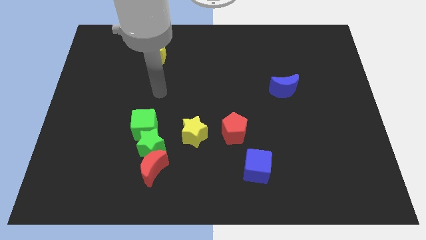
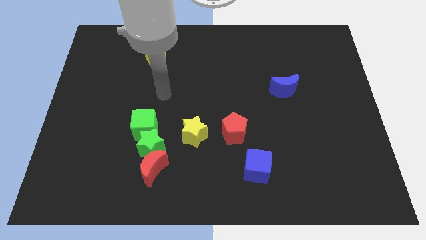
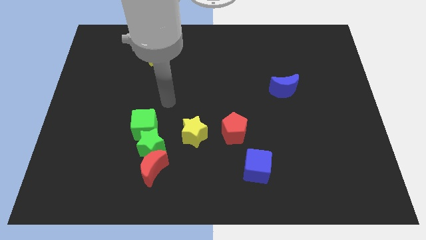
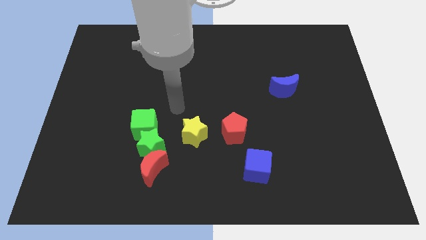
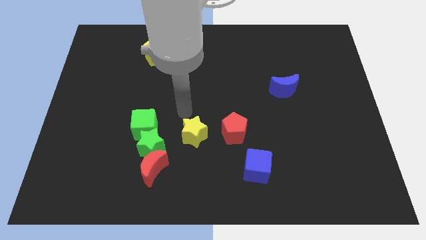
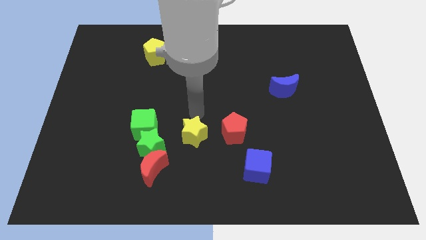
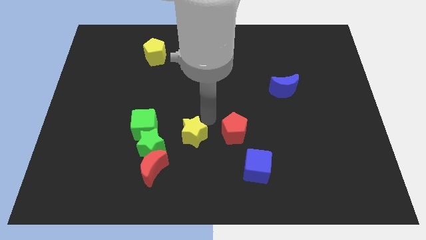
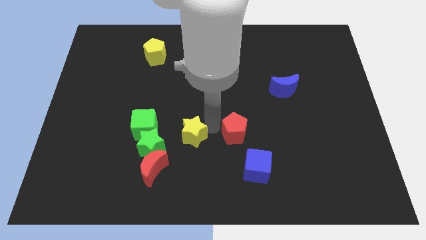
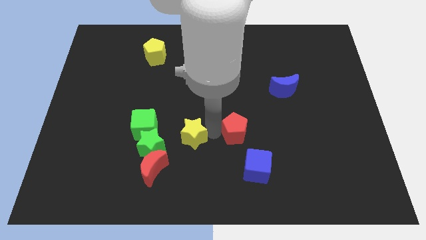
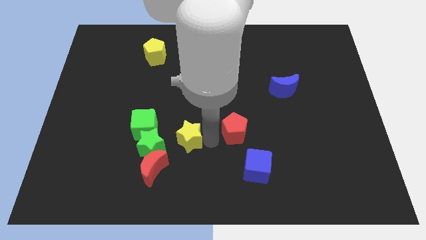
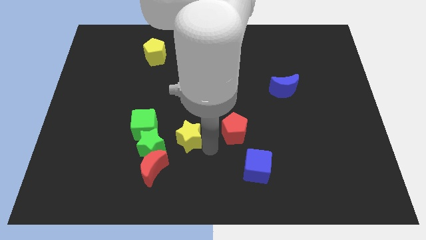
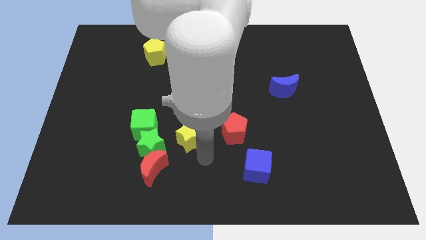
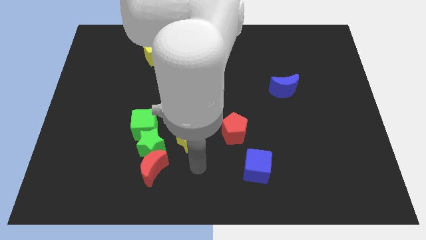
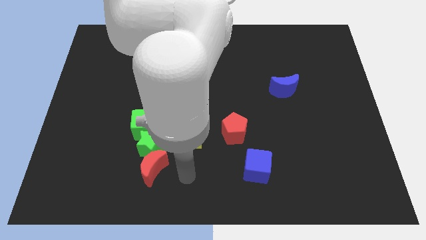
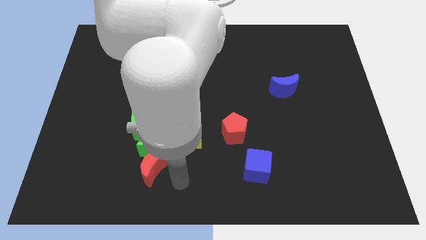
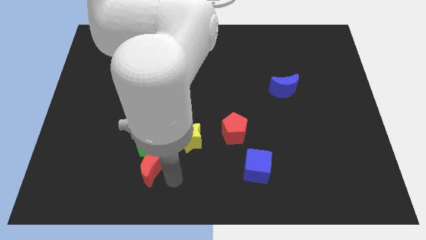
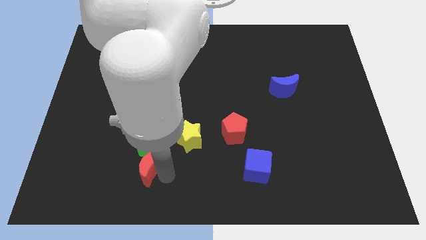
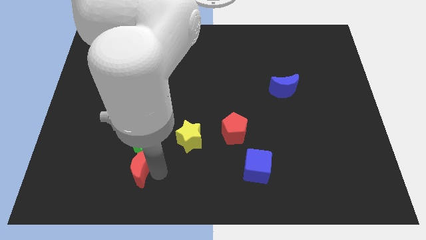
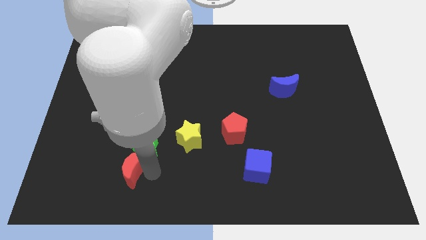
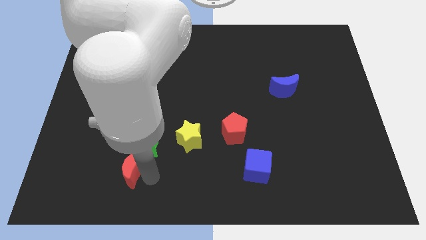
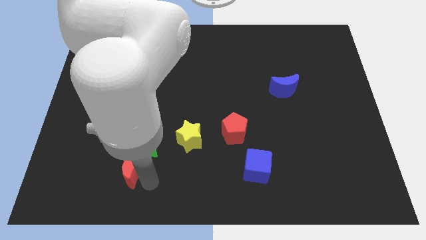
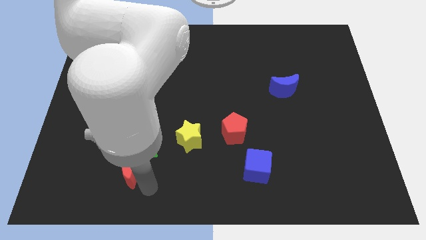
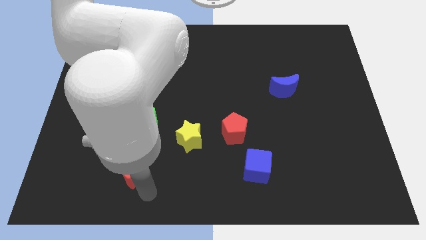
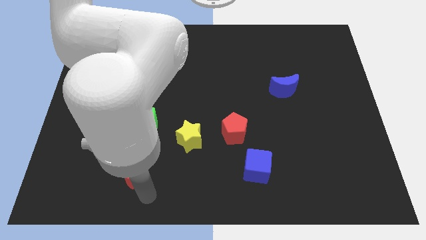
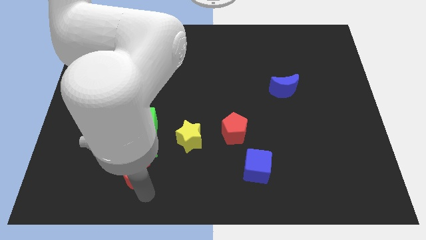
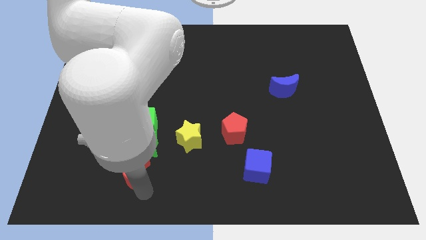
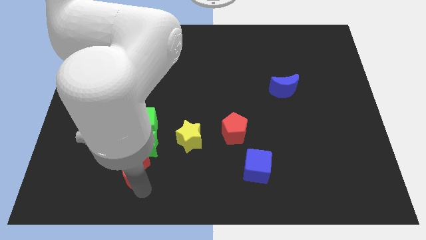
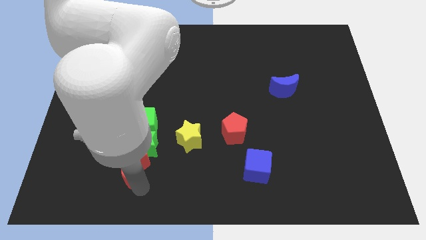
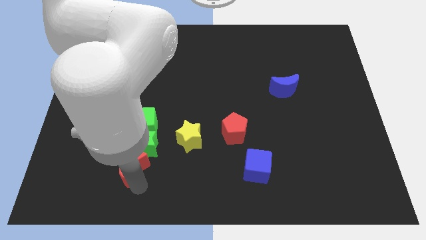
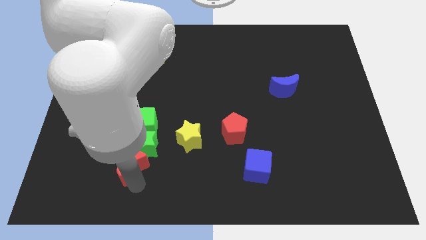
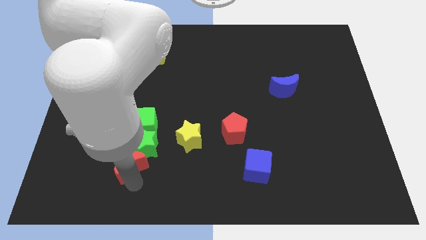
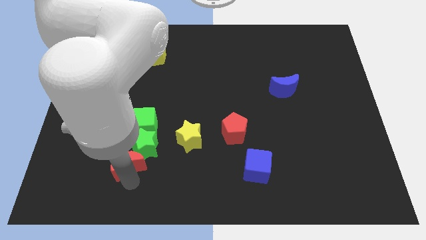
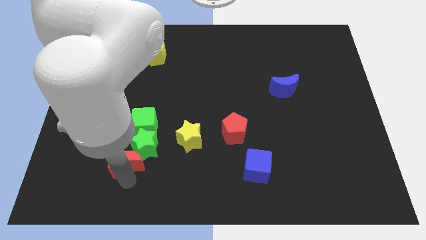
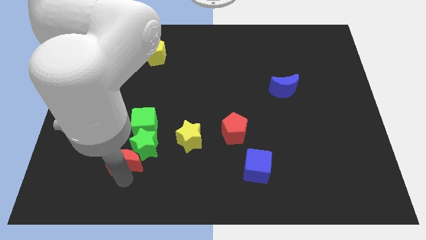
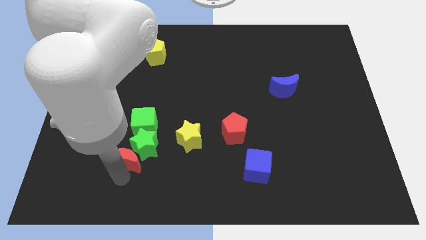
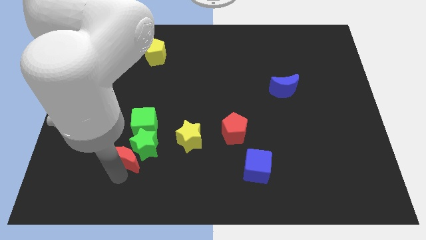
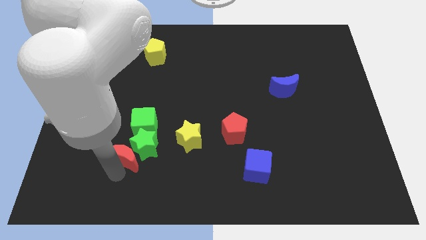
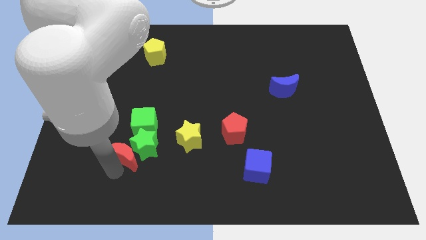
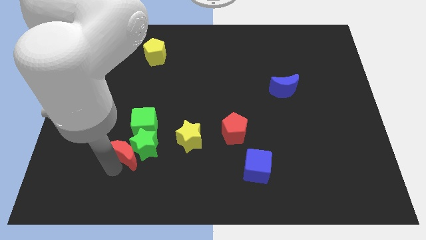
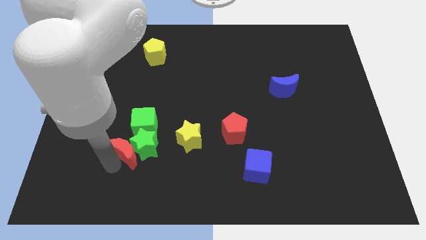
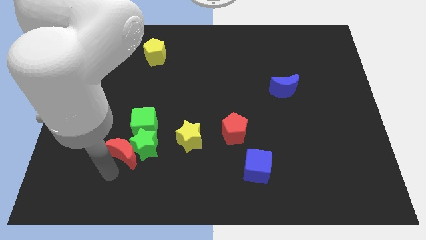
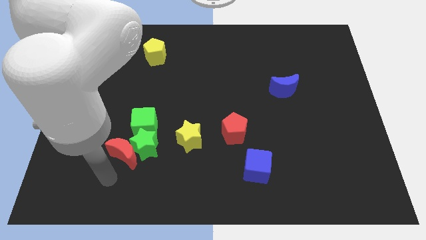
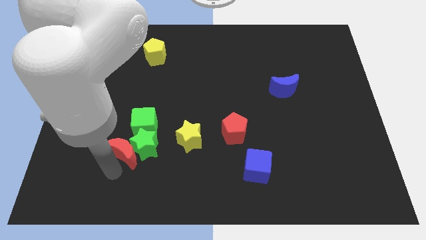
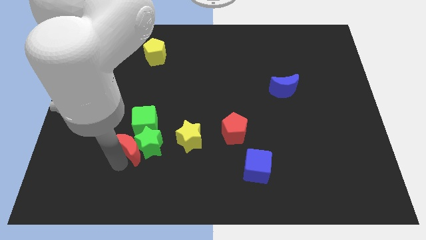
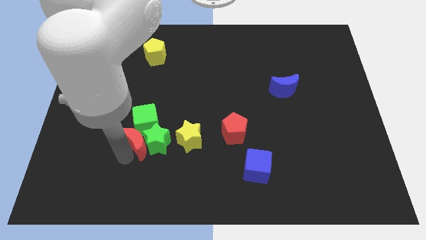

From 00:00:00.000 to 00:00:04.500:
push the red moon next to the green cube

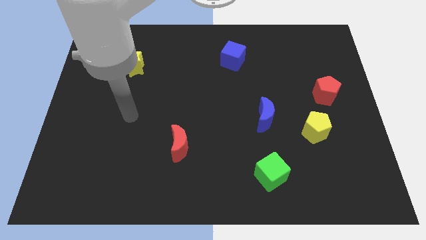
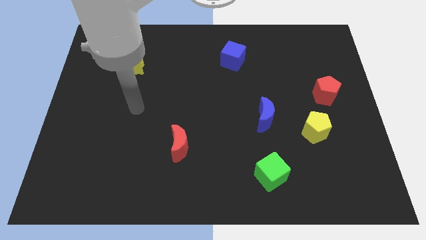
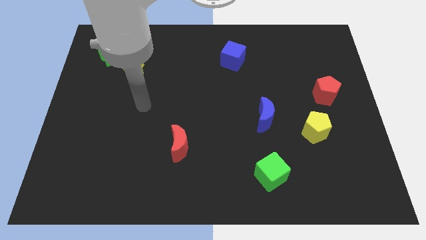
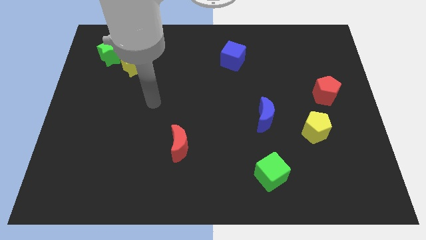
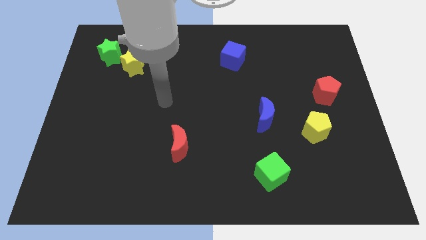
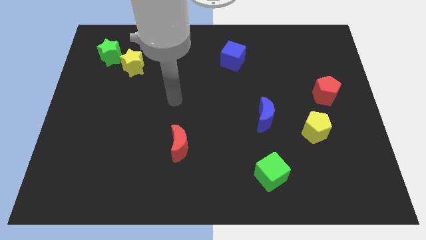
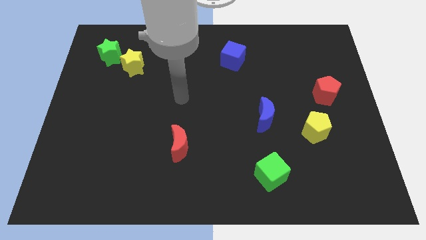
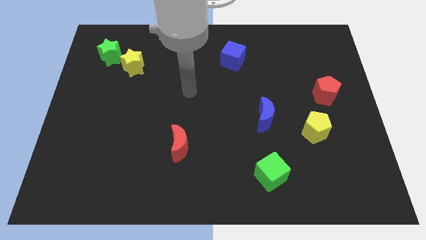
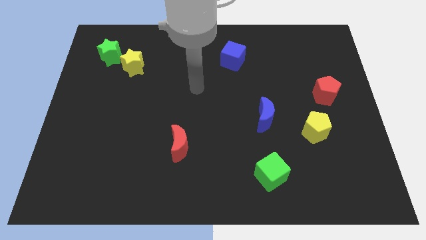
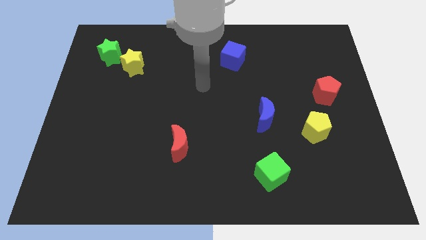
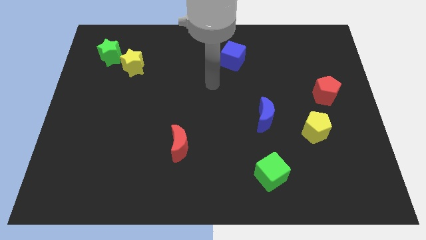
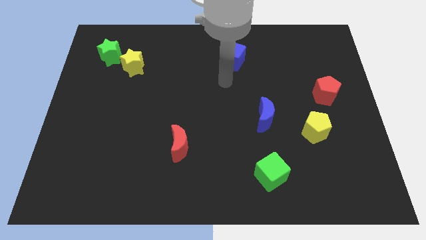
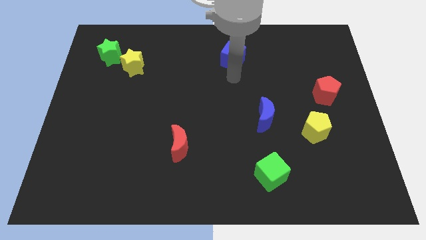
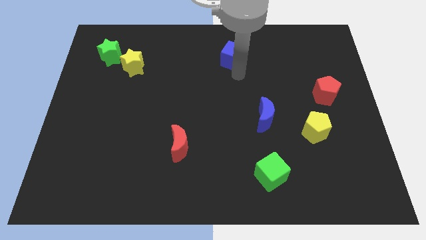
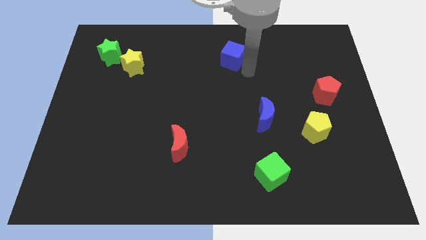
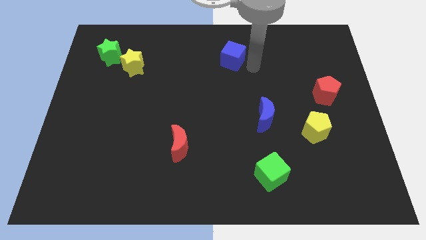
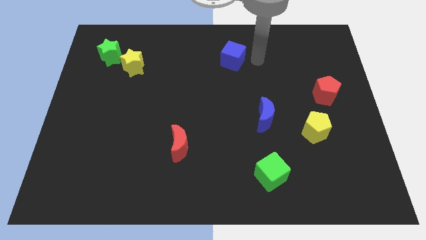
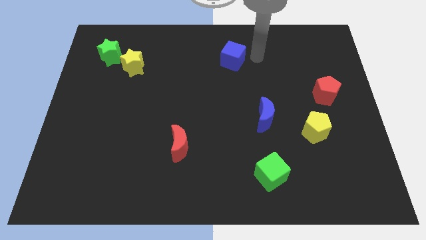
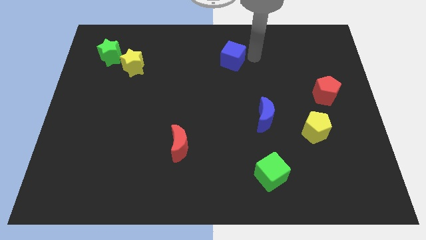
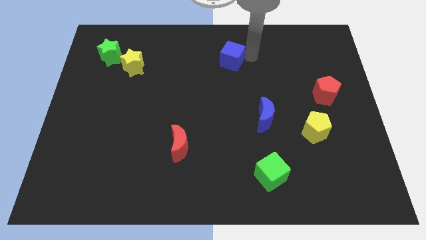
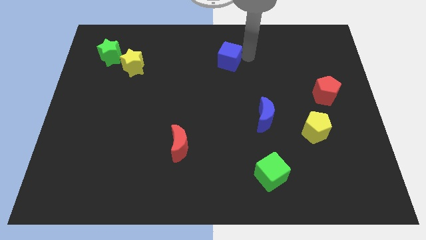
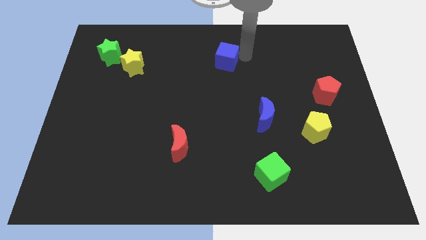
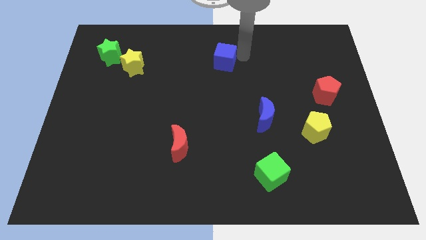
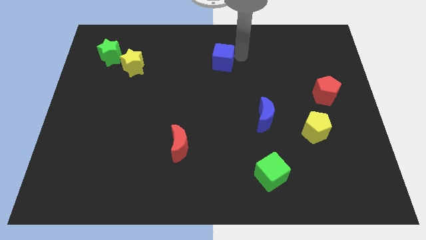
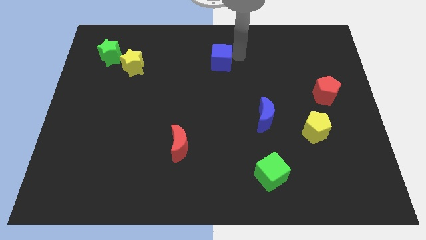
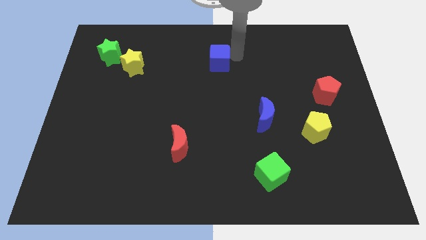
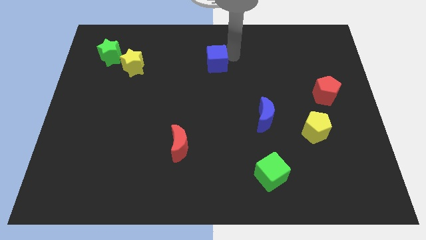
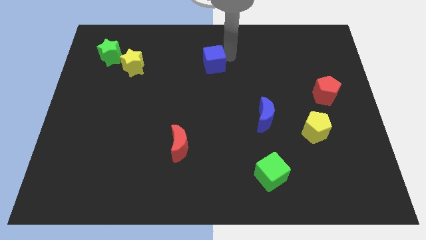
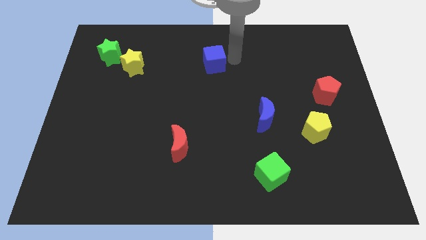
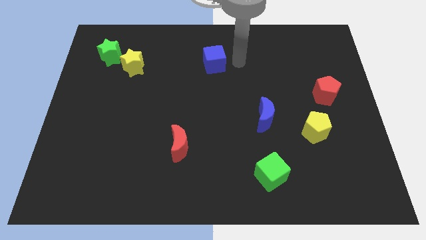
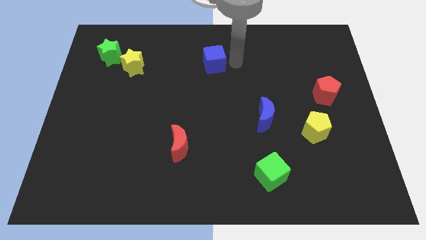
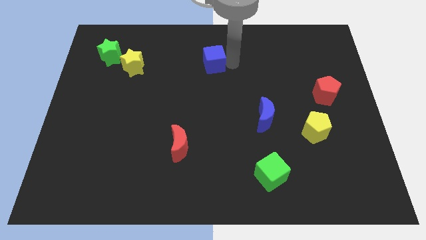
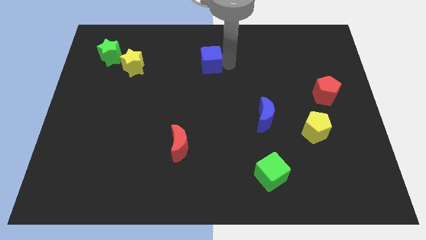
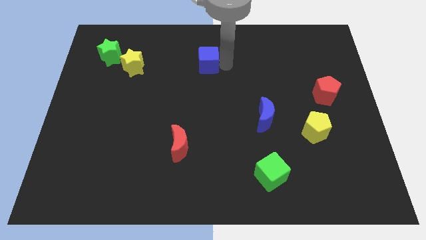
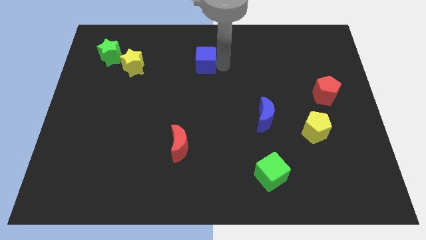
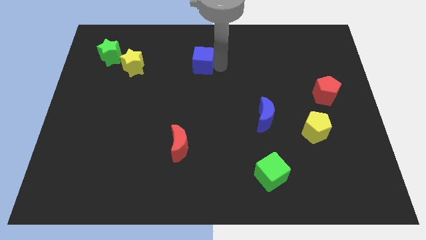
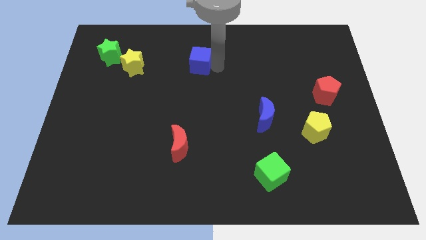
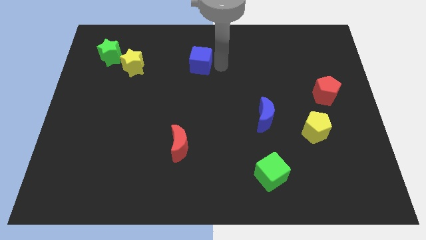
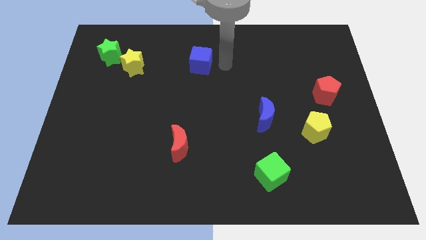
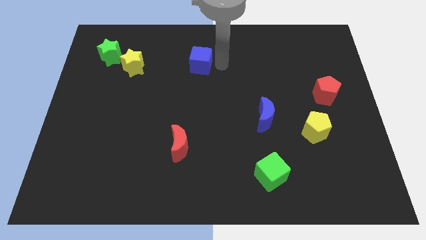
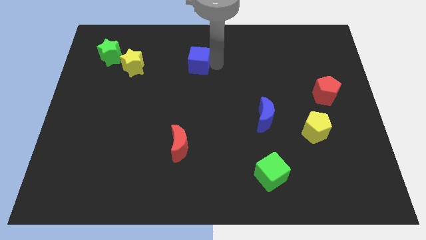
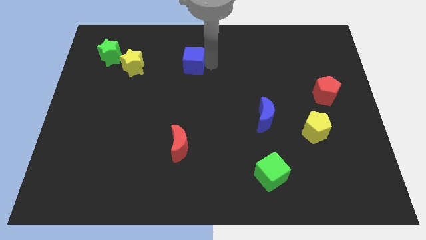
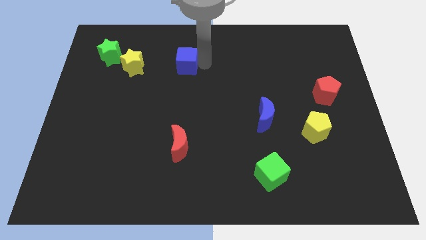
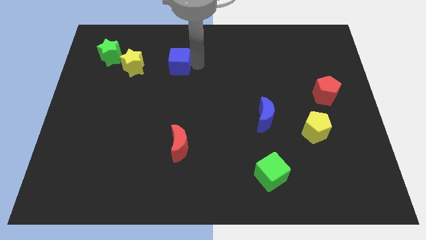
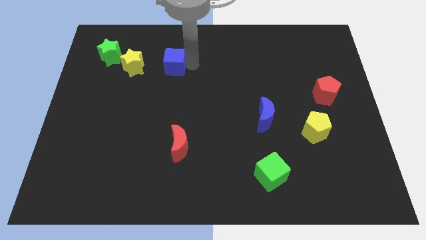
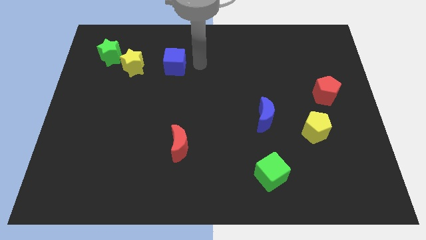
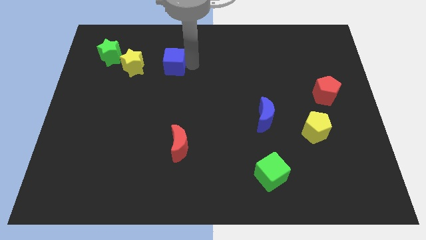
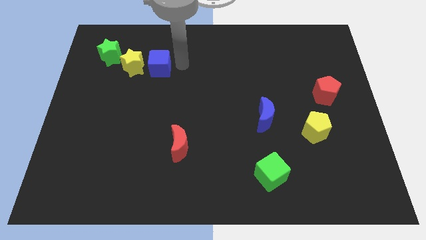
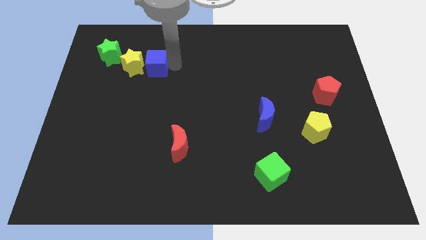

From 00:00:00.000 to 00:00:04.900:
push the blue cube next to the yellow star
